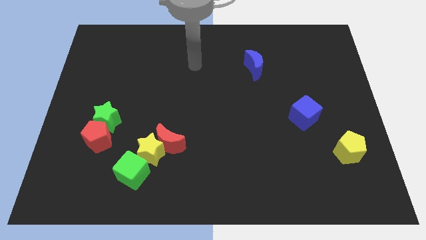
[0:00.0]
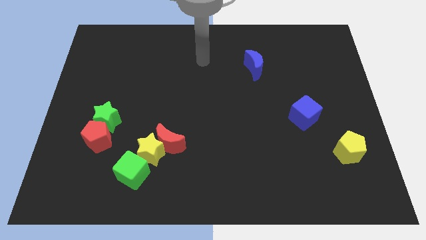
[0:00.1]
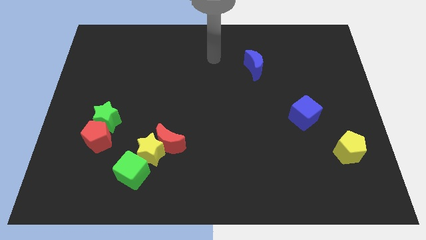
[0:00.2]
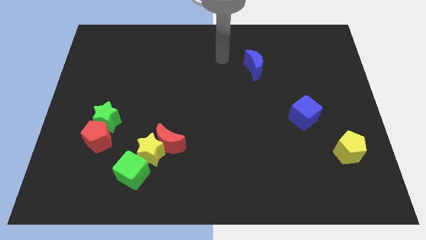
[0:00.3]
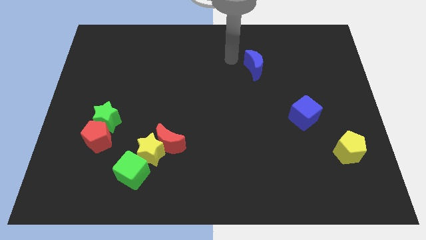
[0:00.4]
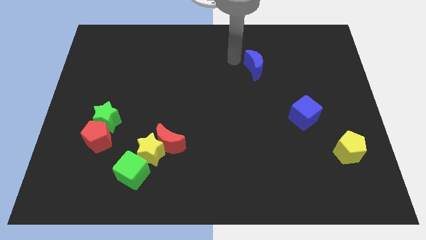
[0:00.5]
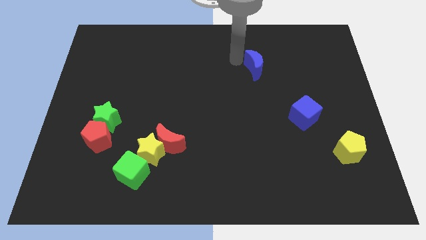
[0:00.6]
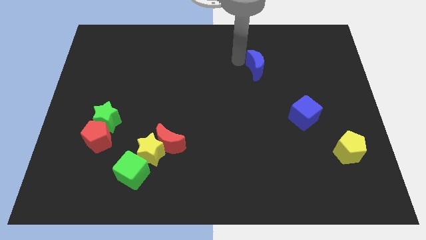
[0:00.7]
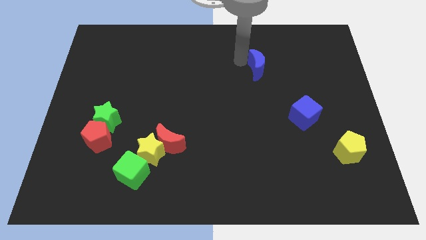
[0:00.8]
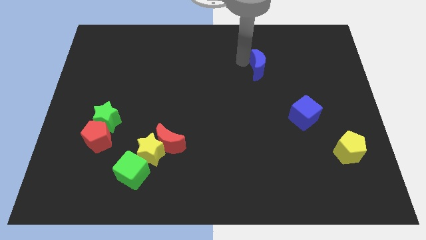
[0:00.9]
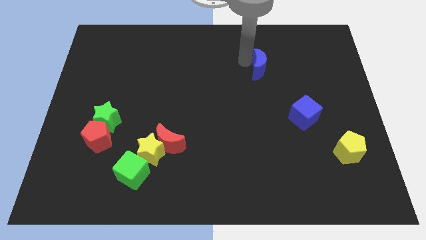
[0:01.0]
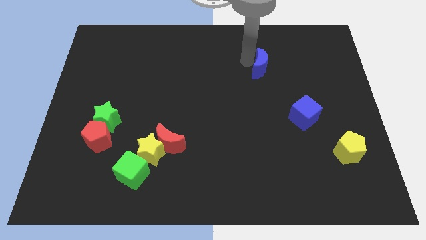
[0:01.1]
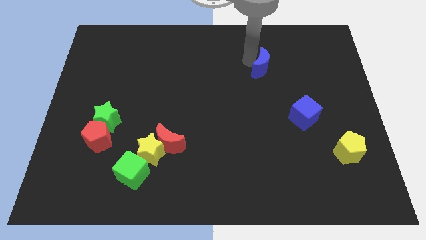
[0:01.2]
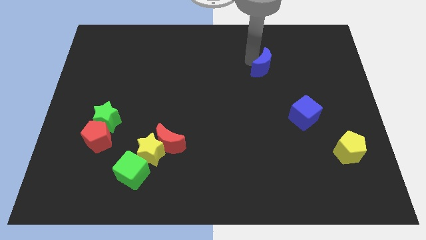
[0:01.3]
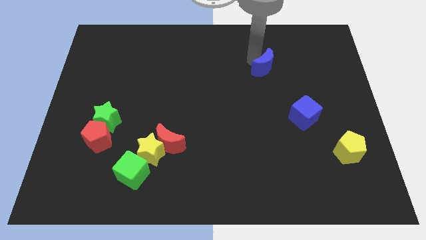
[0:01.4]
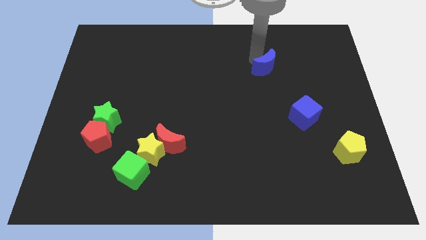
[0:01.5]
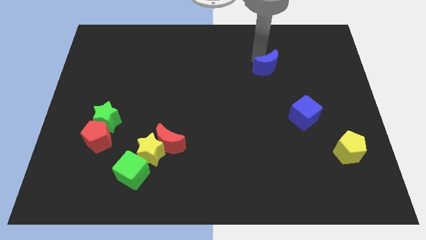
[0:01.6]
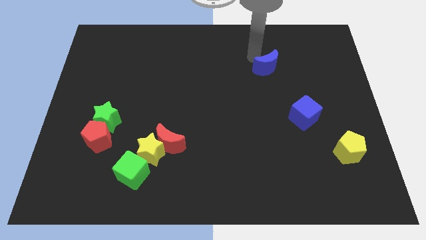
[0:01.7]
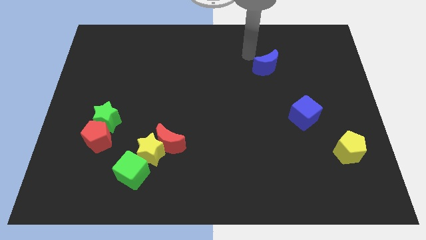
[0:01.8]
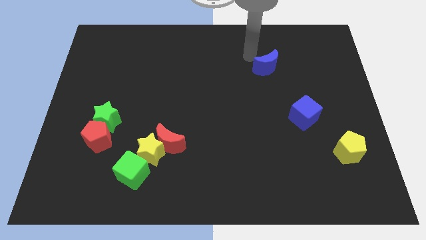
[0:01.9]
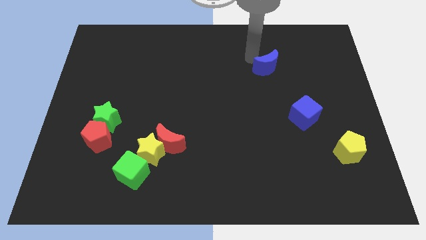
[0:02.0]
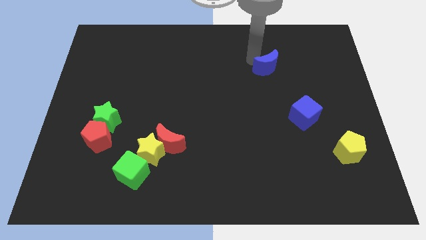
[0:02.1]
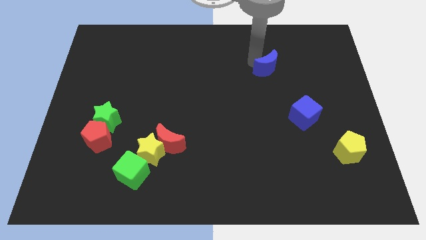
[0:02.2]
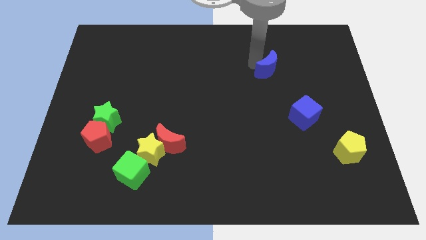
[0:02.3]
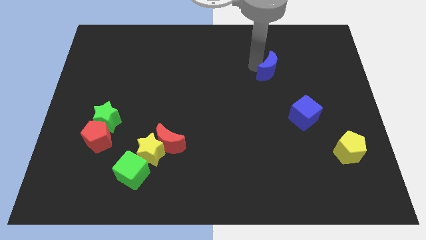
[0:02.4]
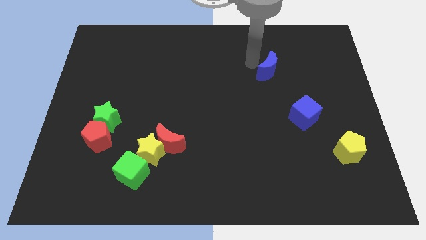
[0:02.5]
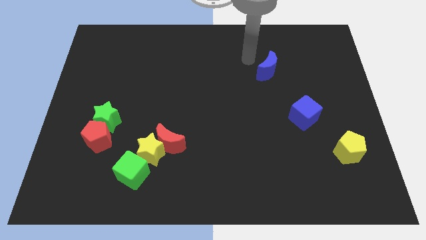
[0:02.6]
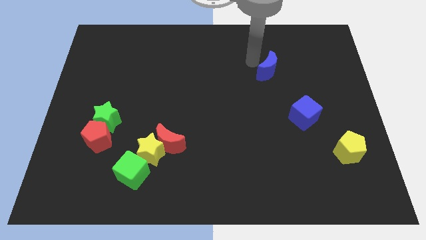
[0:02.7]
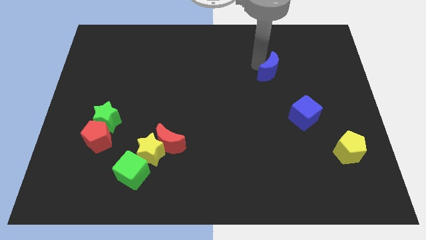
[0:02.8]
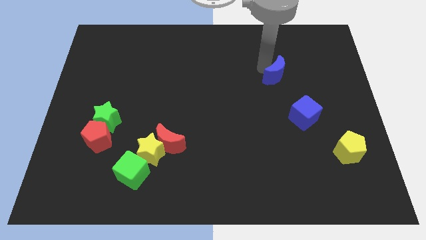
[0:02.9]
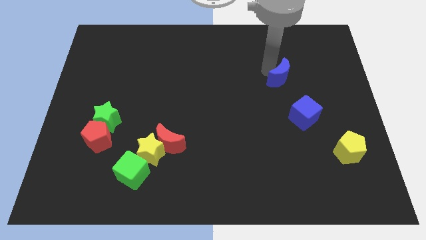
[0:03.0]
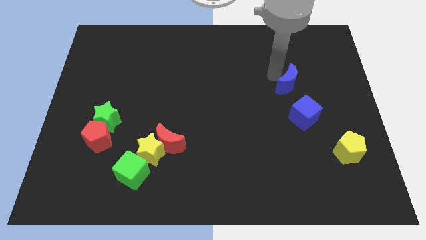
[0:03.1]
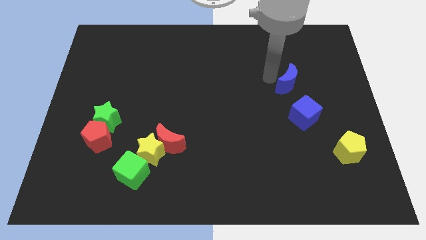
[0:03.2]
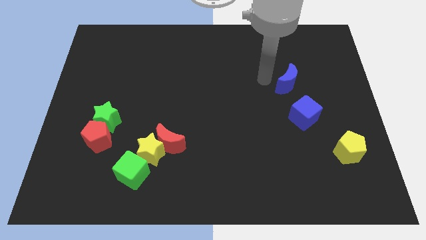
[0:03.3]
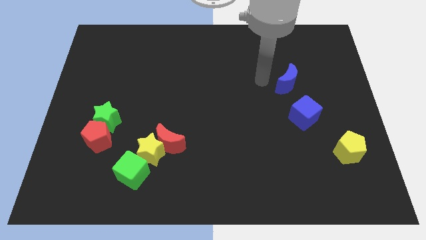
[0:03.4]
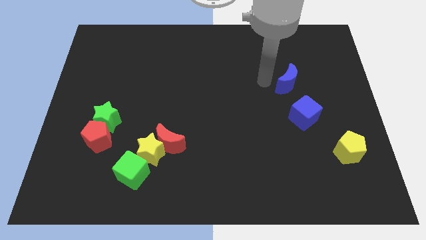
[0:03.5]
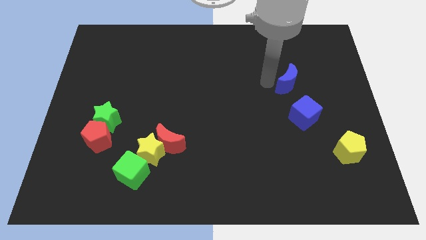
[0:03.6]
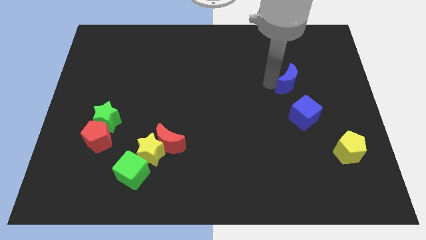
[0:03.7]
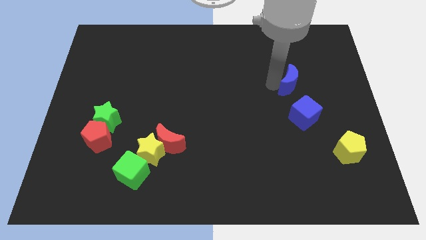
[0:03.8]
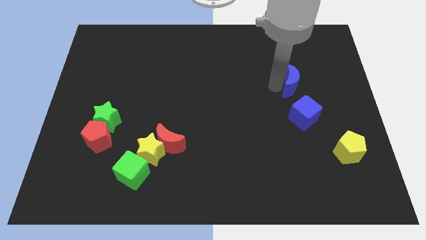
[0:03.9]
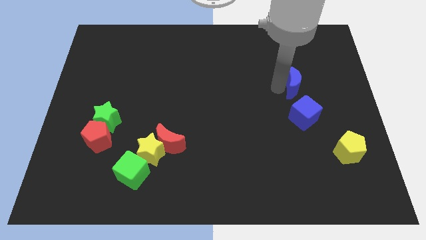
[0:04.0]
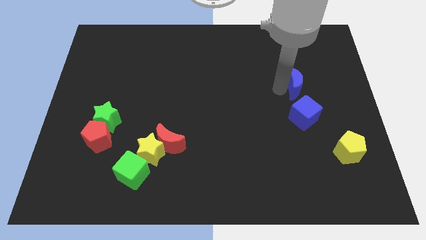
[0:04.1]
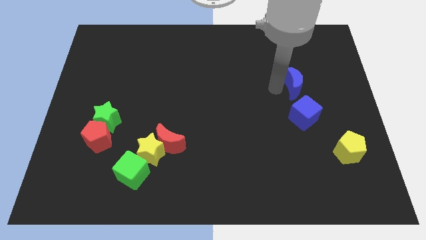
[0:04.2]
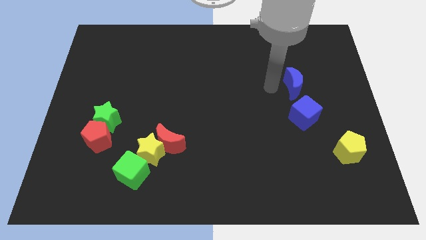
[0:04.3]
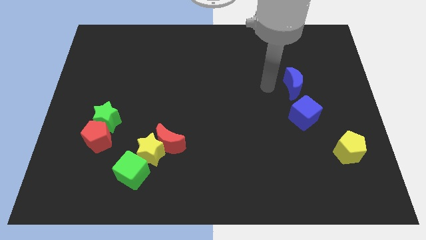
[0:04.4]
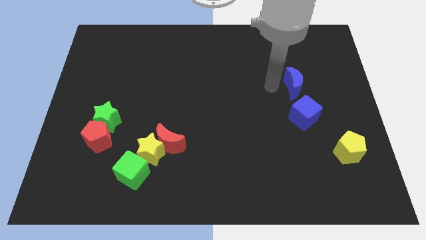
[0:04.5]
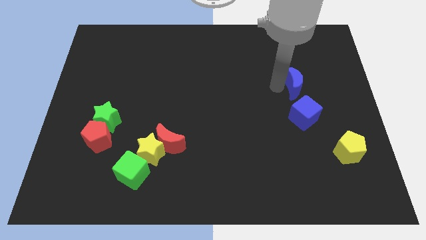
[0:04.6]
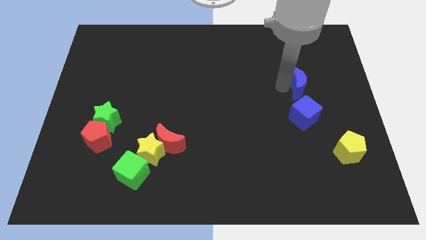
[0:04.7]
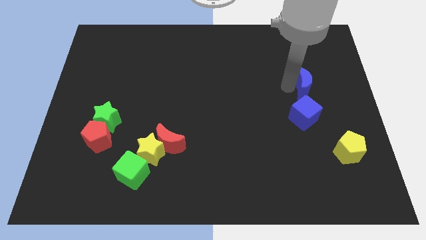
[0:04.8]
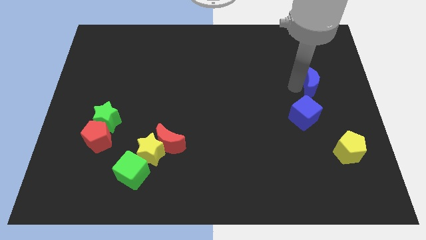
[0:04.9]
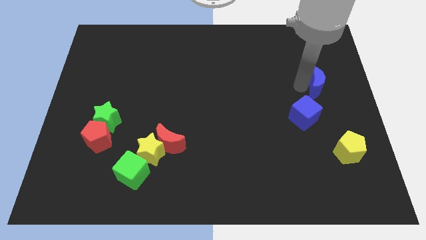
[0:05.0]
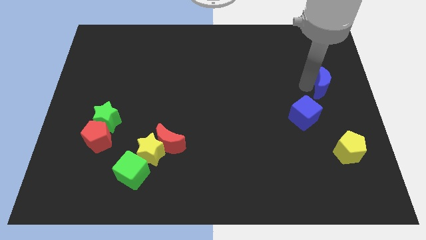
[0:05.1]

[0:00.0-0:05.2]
push the blue moon to the center right

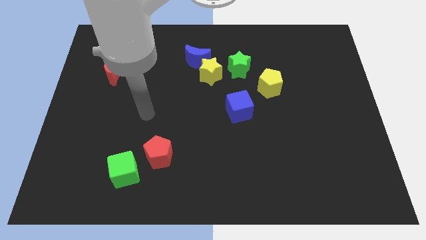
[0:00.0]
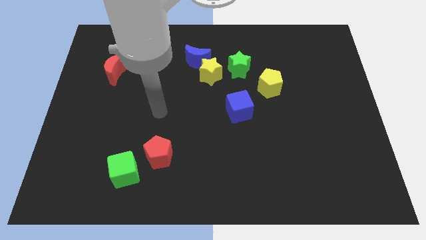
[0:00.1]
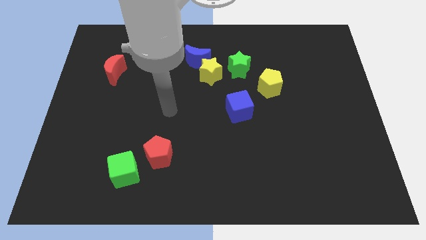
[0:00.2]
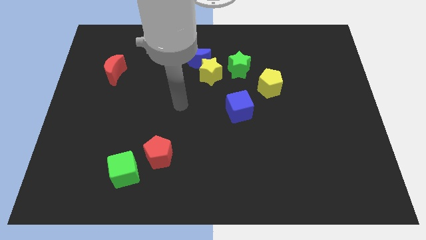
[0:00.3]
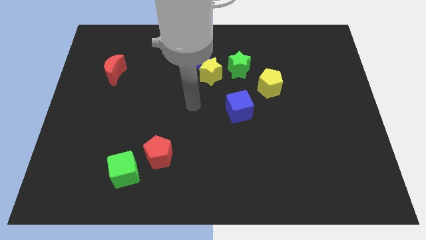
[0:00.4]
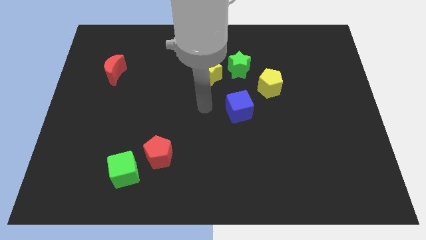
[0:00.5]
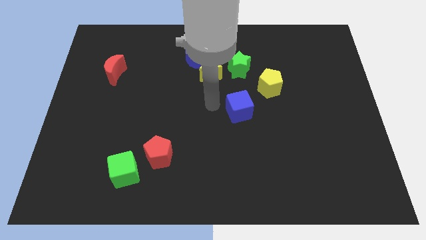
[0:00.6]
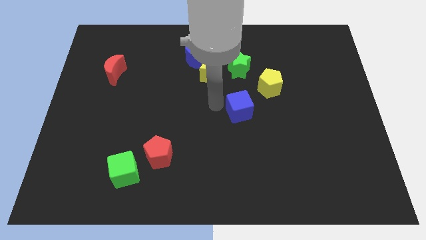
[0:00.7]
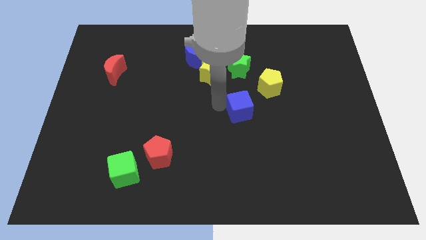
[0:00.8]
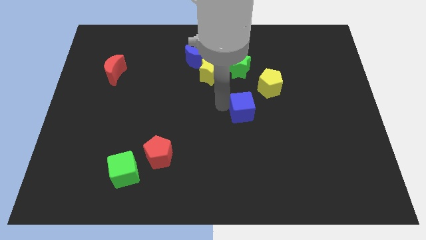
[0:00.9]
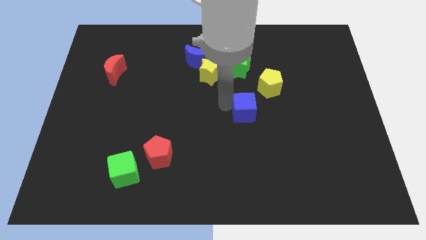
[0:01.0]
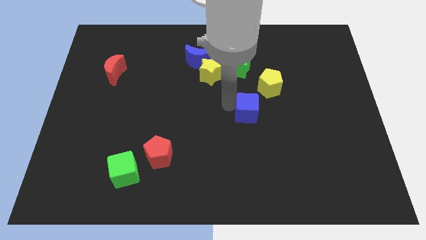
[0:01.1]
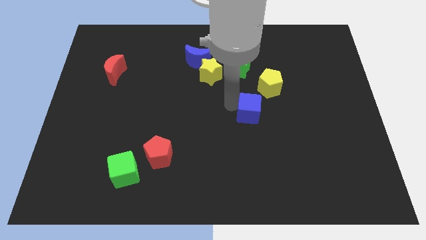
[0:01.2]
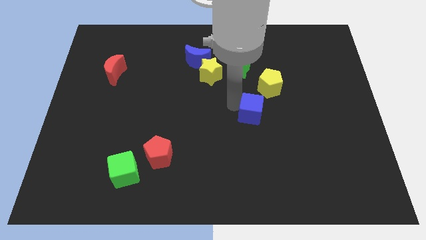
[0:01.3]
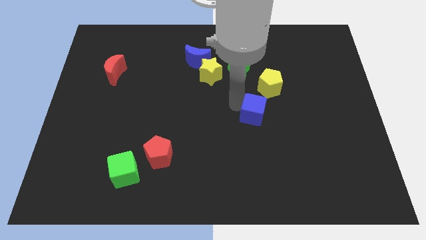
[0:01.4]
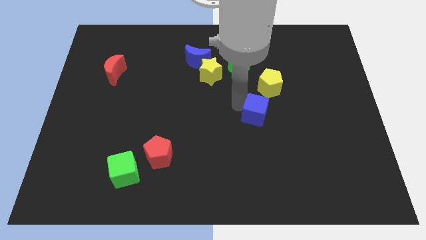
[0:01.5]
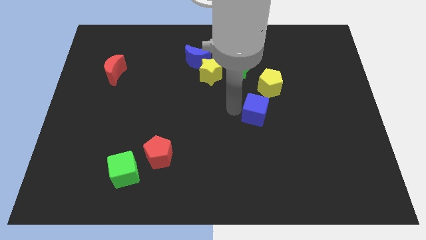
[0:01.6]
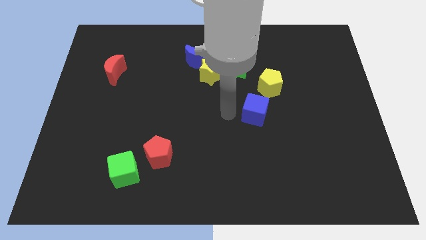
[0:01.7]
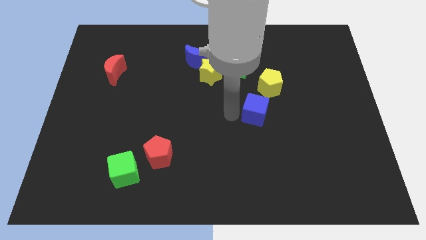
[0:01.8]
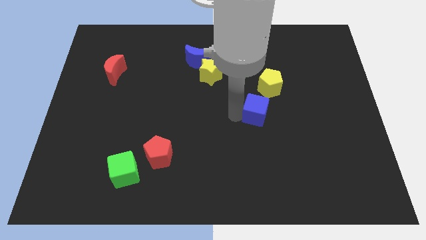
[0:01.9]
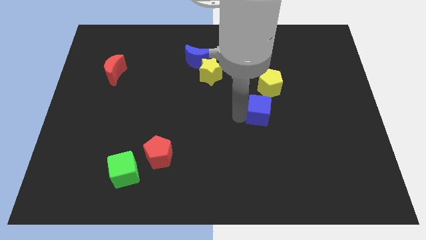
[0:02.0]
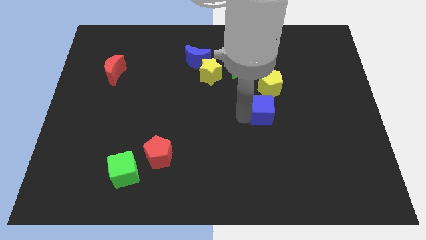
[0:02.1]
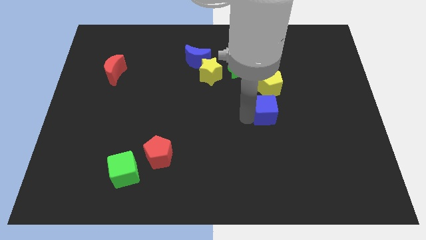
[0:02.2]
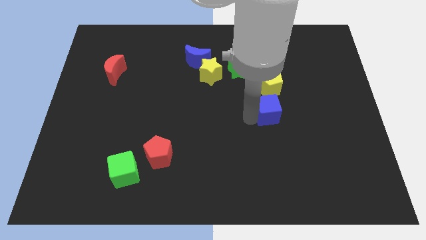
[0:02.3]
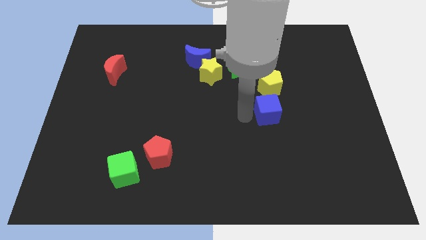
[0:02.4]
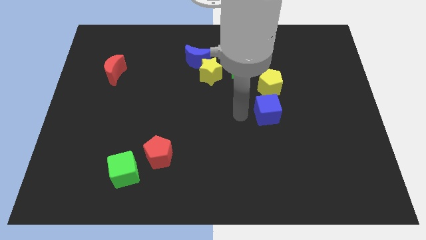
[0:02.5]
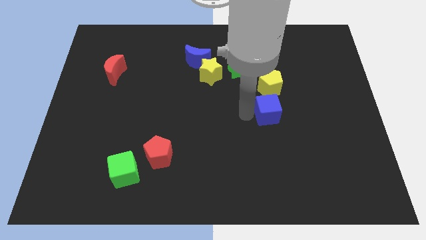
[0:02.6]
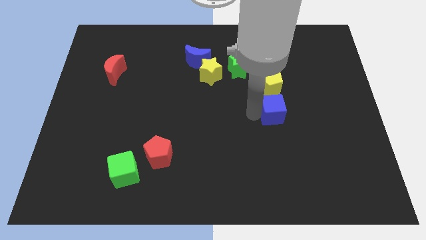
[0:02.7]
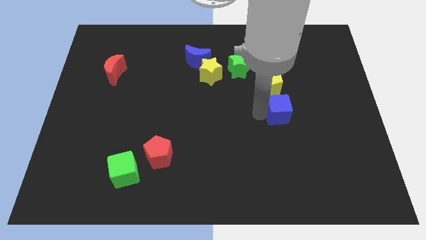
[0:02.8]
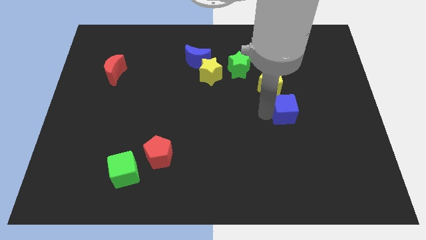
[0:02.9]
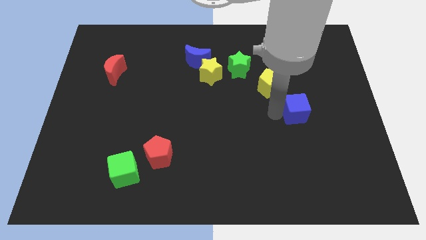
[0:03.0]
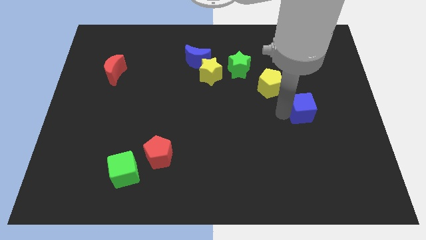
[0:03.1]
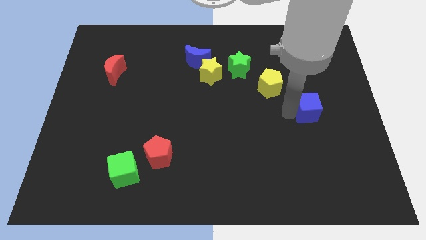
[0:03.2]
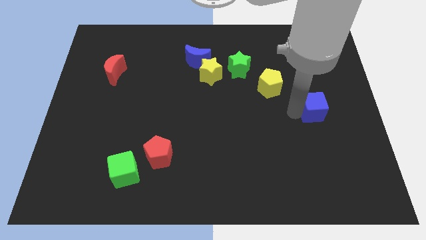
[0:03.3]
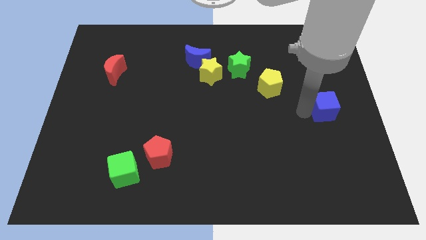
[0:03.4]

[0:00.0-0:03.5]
put the blue cube to the right side
